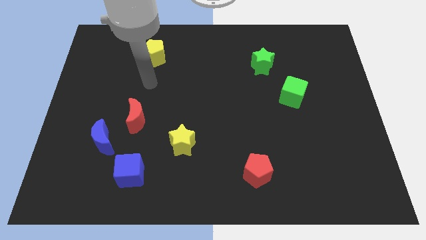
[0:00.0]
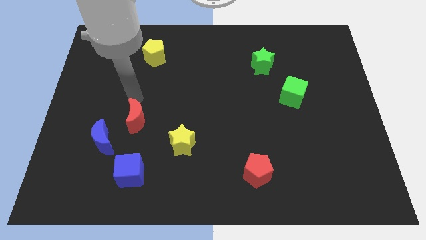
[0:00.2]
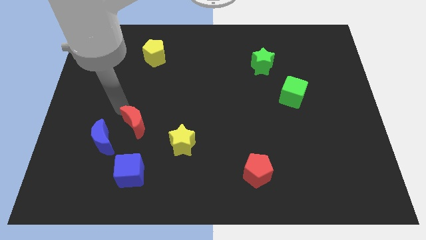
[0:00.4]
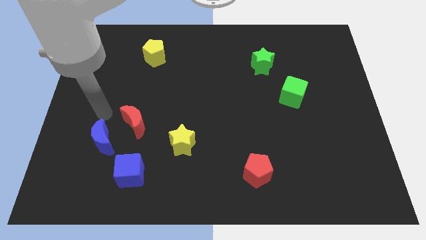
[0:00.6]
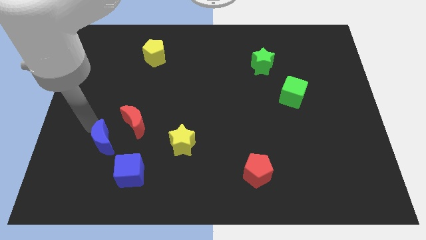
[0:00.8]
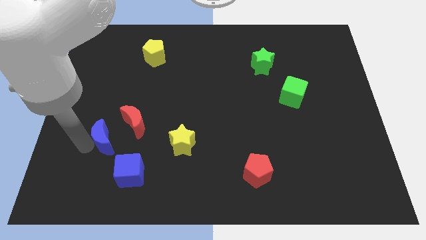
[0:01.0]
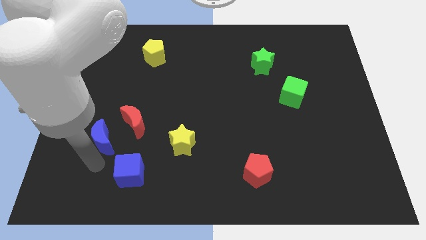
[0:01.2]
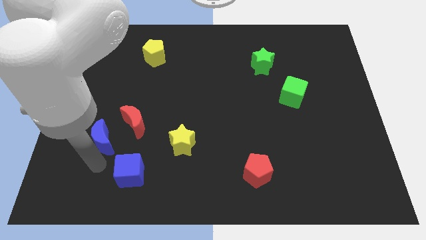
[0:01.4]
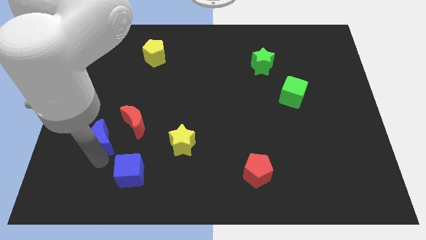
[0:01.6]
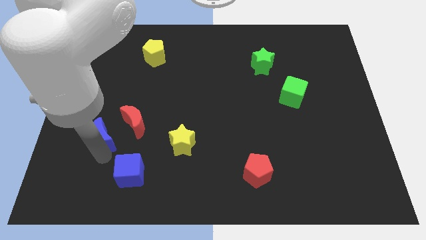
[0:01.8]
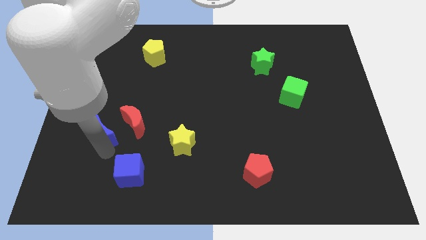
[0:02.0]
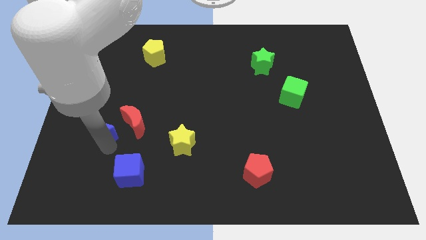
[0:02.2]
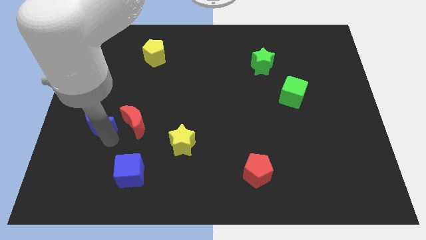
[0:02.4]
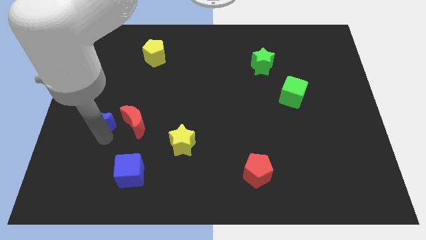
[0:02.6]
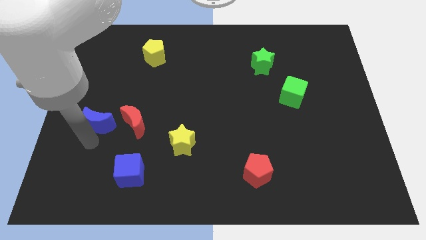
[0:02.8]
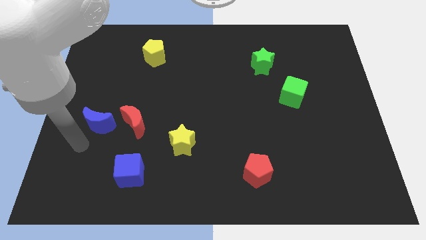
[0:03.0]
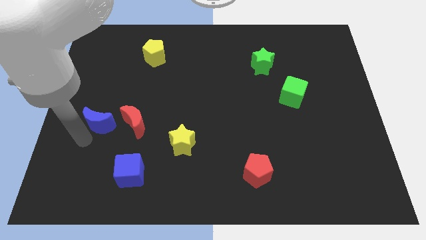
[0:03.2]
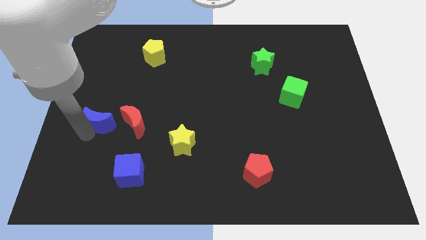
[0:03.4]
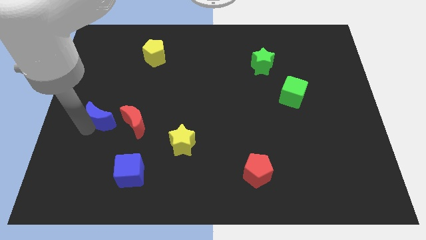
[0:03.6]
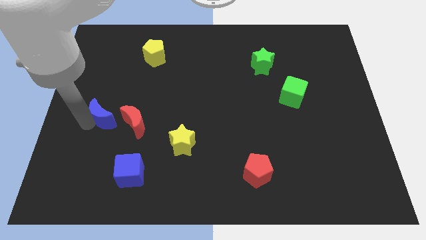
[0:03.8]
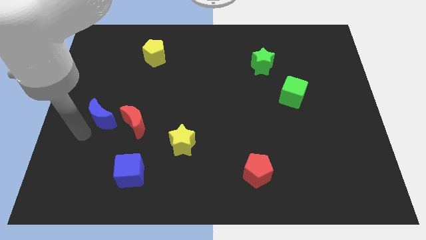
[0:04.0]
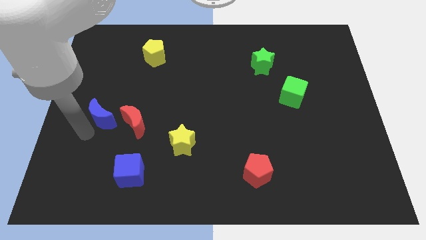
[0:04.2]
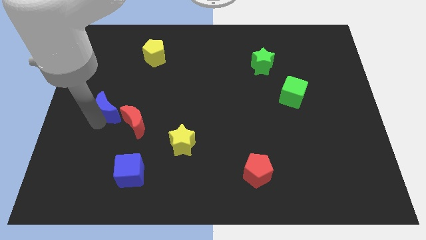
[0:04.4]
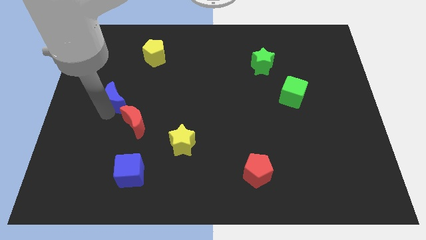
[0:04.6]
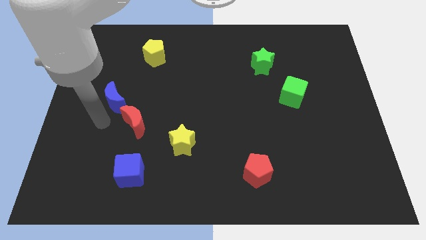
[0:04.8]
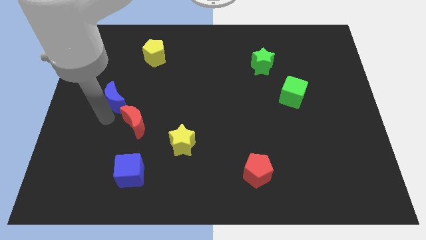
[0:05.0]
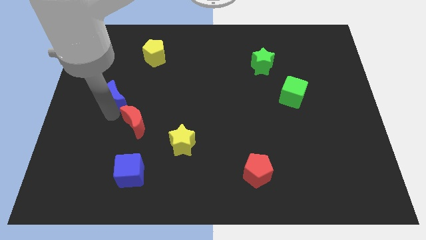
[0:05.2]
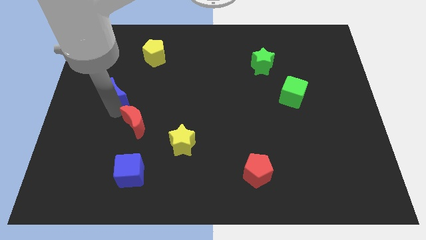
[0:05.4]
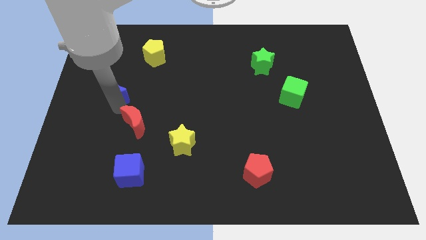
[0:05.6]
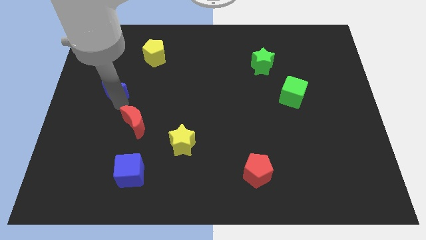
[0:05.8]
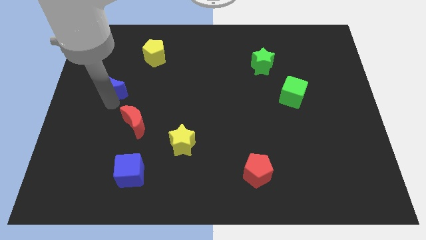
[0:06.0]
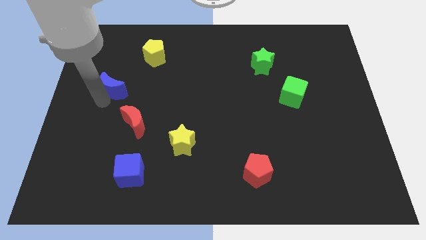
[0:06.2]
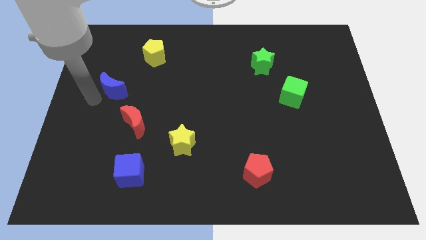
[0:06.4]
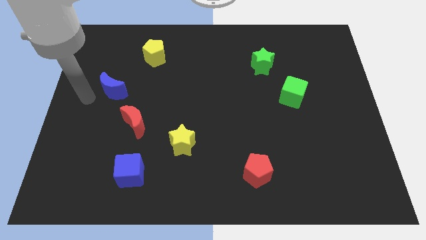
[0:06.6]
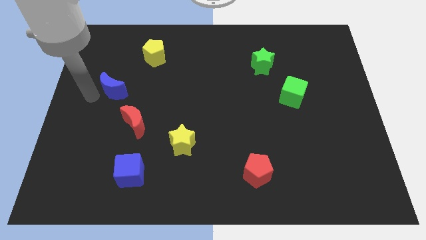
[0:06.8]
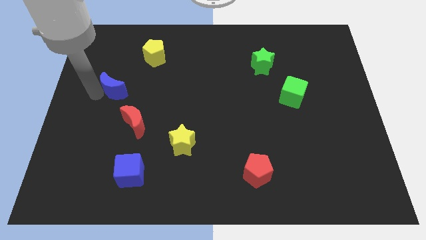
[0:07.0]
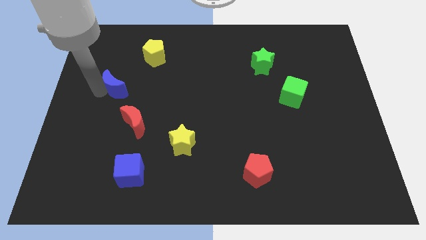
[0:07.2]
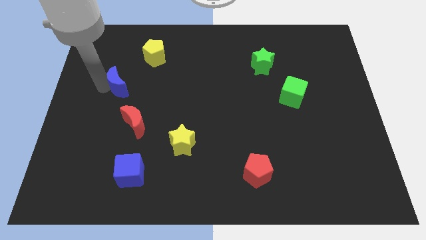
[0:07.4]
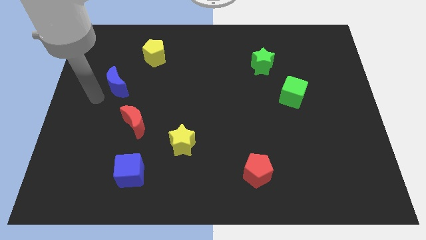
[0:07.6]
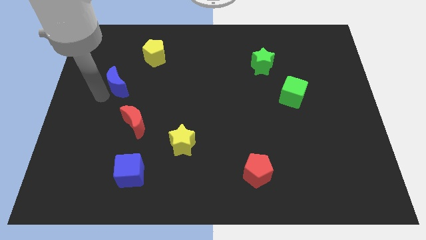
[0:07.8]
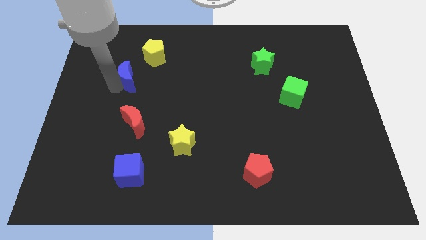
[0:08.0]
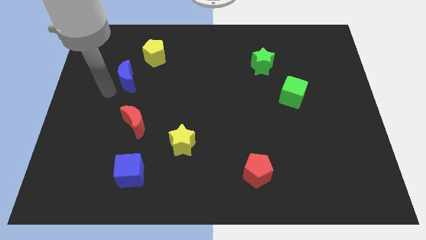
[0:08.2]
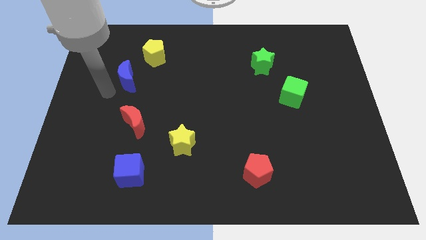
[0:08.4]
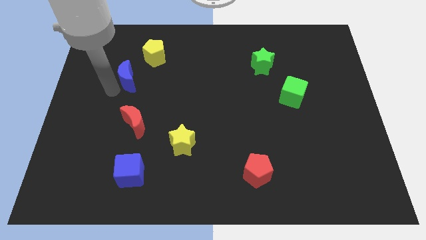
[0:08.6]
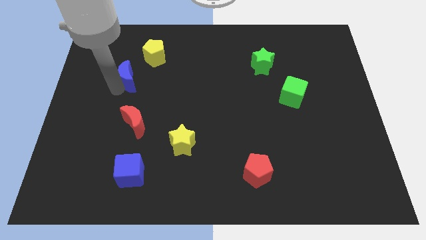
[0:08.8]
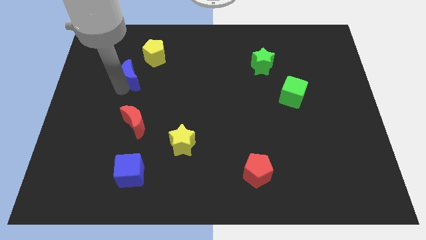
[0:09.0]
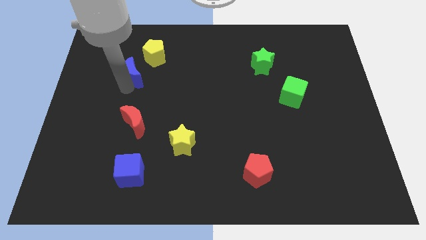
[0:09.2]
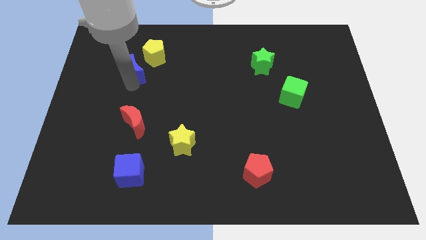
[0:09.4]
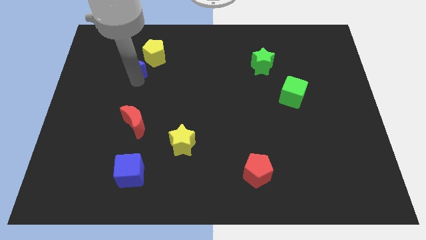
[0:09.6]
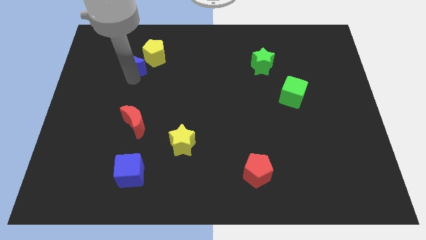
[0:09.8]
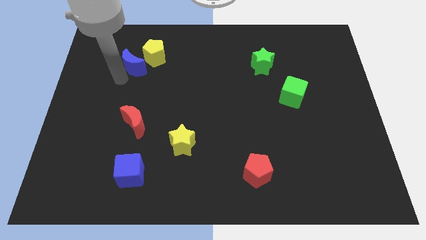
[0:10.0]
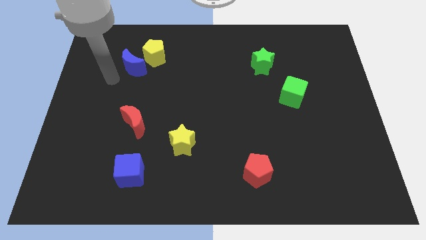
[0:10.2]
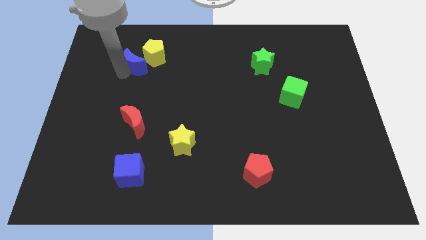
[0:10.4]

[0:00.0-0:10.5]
put the blue moon to the yellow pentagon

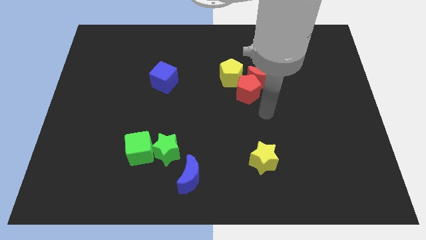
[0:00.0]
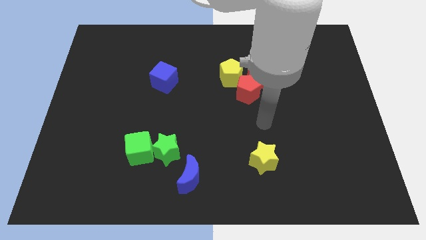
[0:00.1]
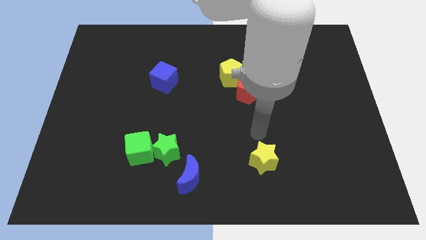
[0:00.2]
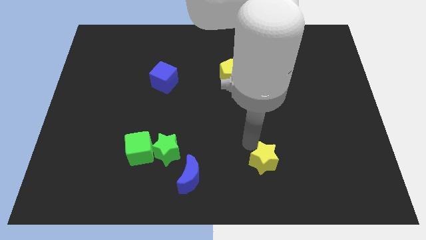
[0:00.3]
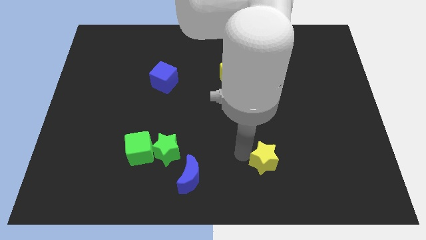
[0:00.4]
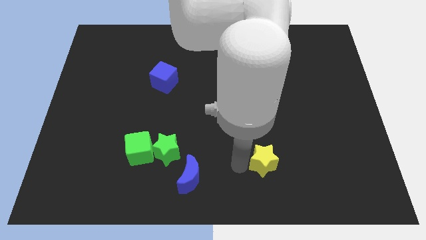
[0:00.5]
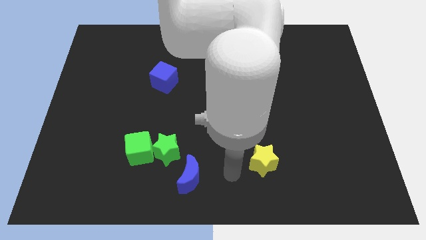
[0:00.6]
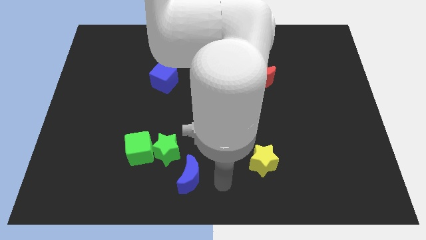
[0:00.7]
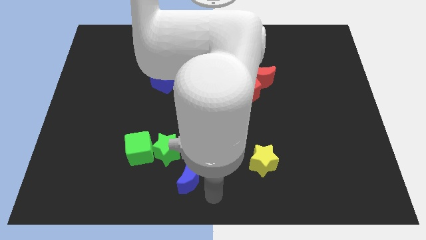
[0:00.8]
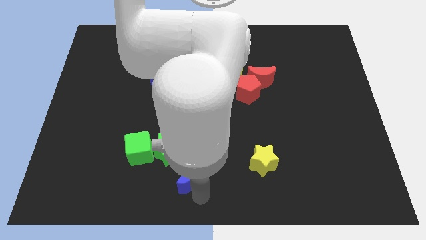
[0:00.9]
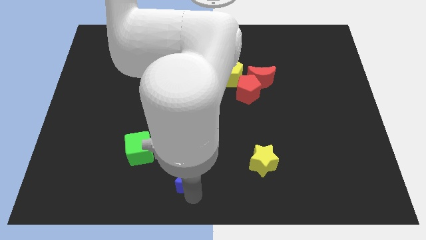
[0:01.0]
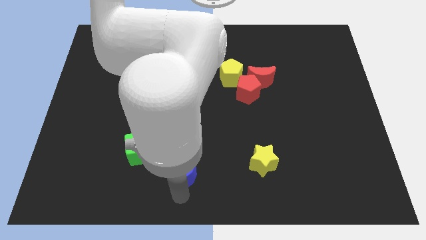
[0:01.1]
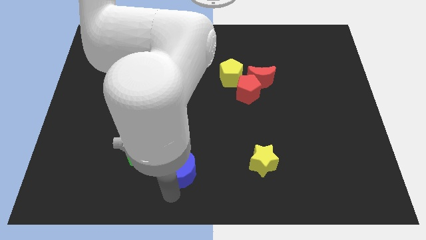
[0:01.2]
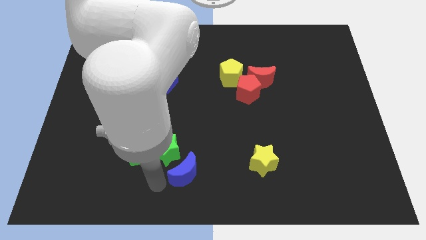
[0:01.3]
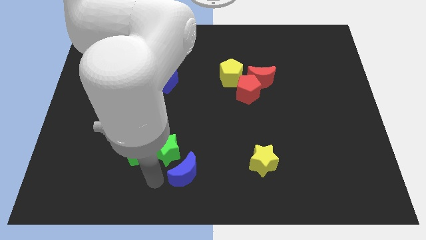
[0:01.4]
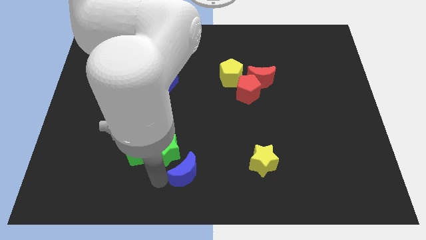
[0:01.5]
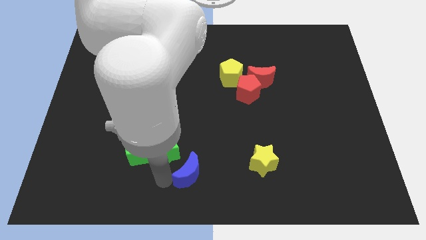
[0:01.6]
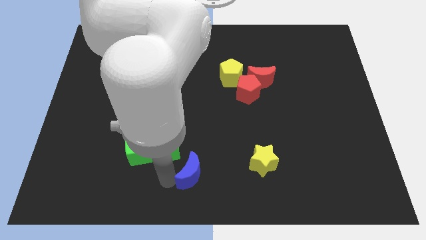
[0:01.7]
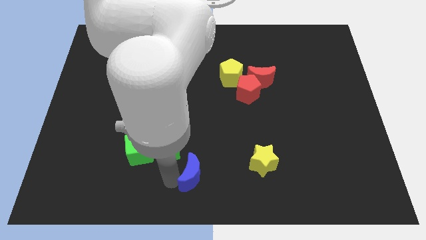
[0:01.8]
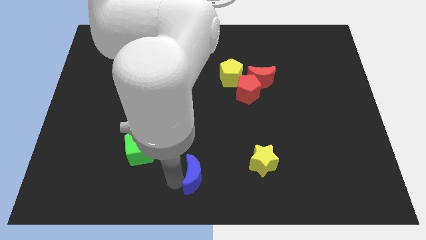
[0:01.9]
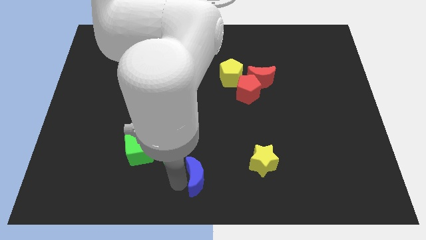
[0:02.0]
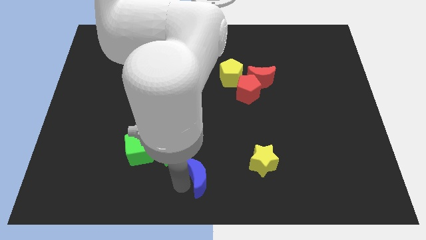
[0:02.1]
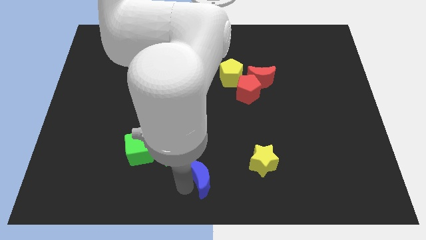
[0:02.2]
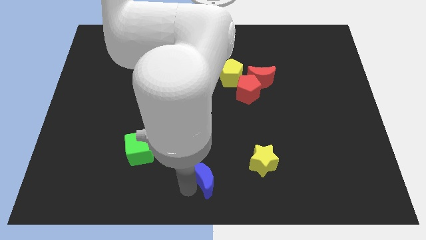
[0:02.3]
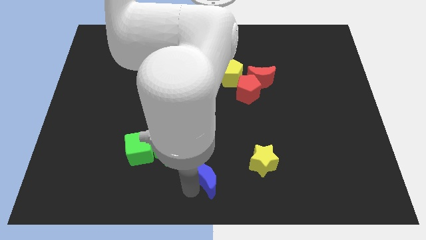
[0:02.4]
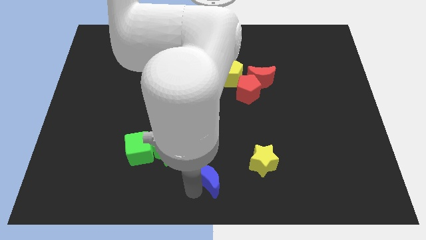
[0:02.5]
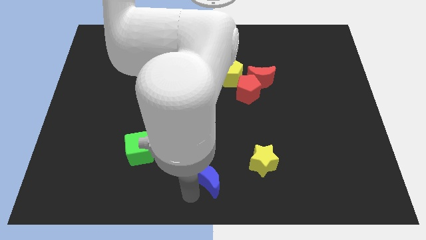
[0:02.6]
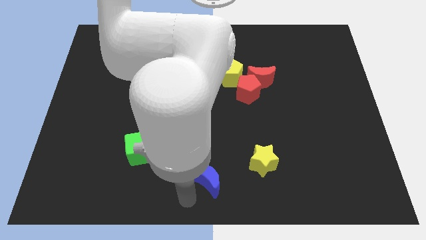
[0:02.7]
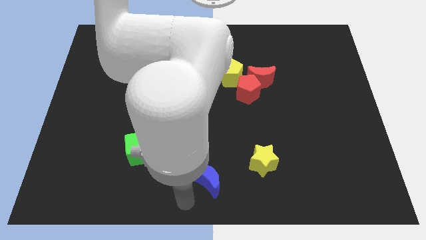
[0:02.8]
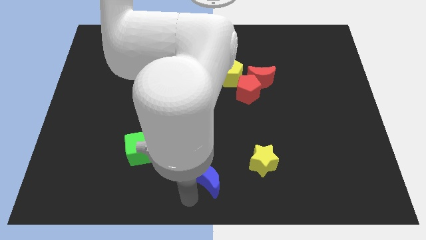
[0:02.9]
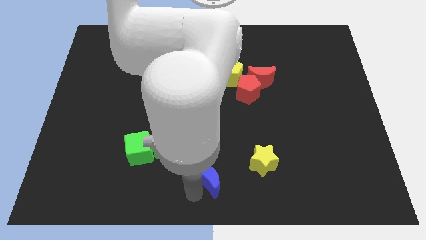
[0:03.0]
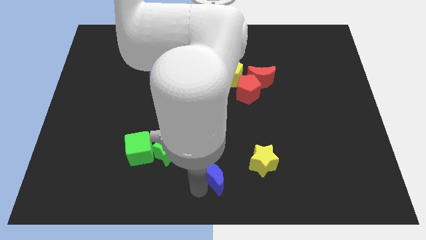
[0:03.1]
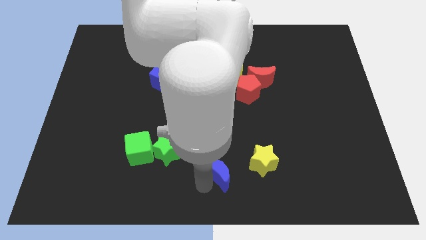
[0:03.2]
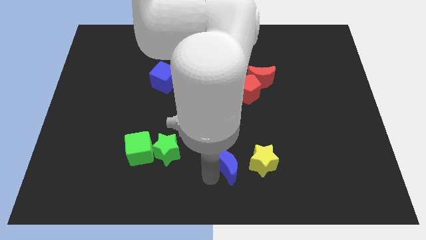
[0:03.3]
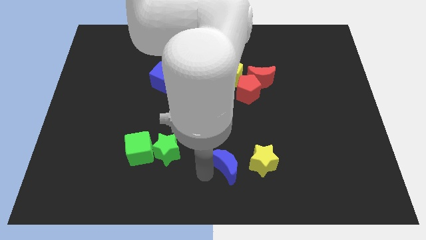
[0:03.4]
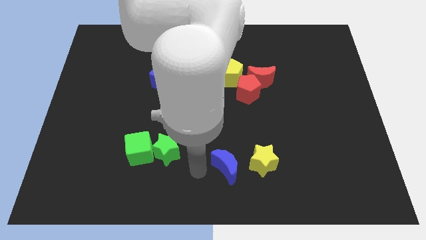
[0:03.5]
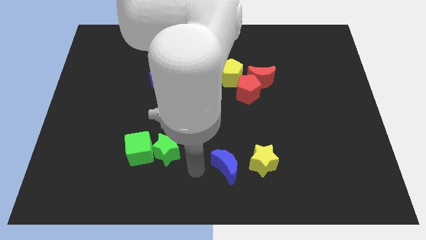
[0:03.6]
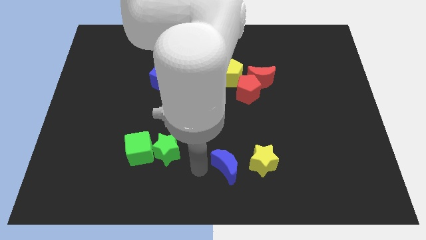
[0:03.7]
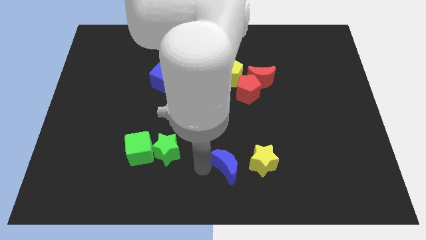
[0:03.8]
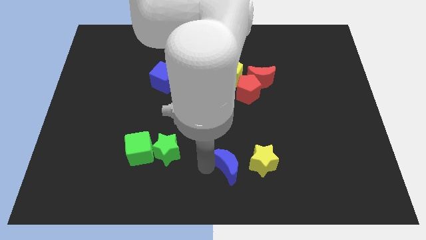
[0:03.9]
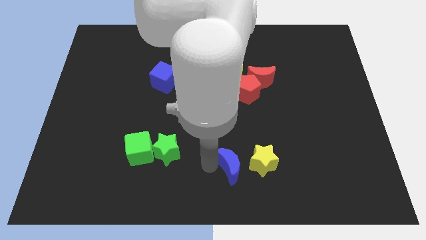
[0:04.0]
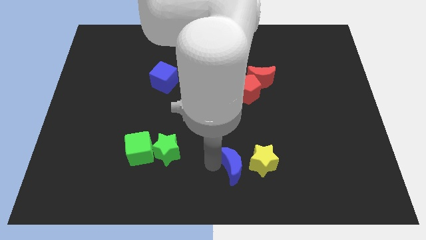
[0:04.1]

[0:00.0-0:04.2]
move the blue moon next to the yellow star
